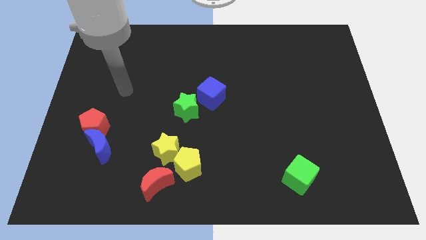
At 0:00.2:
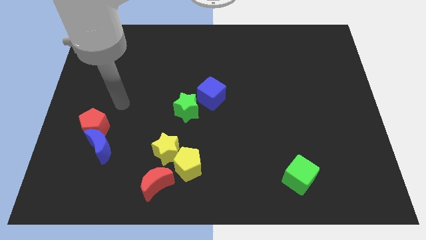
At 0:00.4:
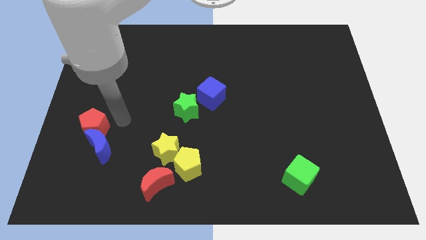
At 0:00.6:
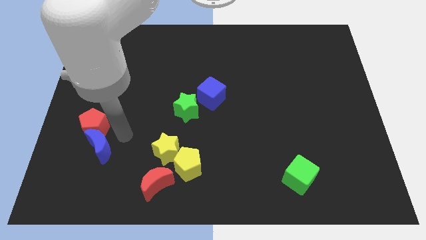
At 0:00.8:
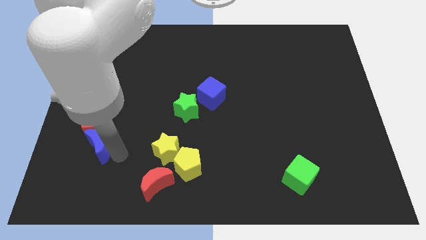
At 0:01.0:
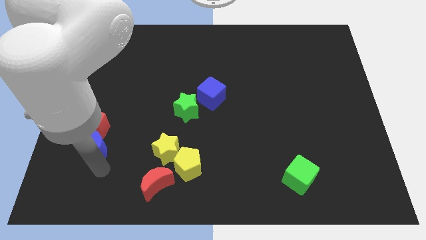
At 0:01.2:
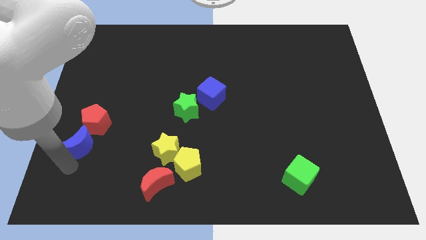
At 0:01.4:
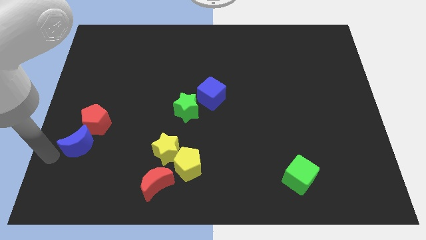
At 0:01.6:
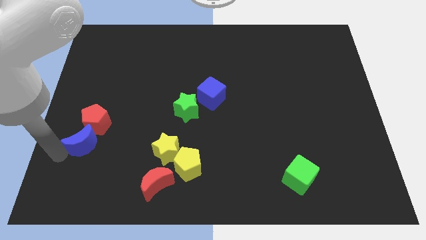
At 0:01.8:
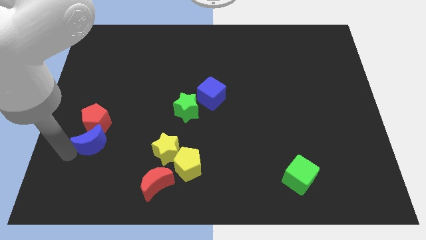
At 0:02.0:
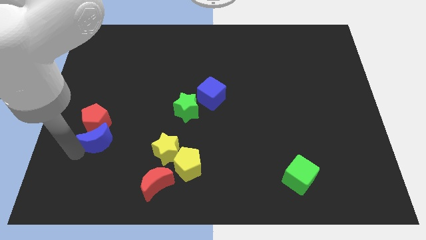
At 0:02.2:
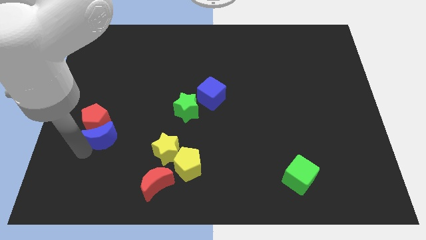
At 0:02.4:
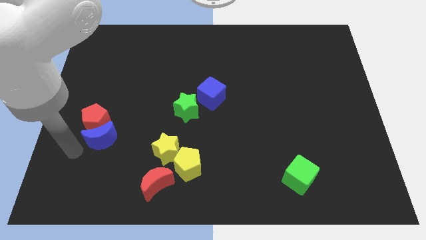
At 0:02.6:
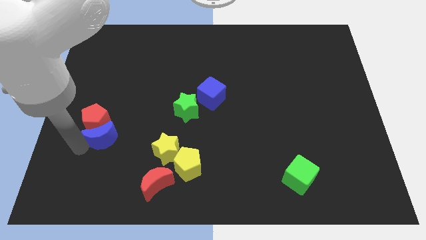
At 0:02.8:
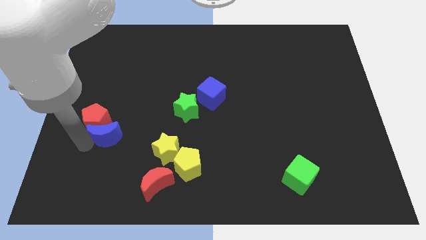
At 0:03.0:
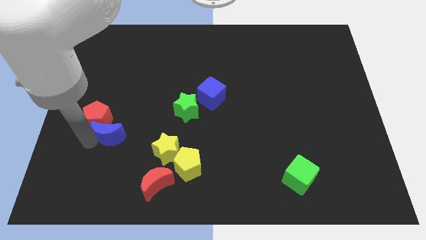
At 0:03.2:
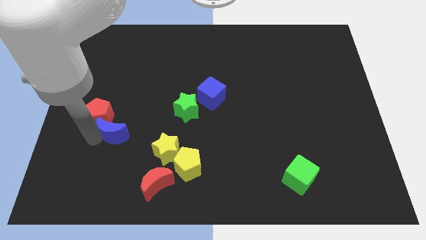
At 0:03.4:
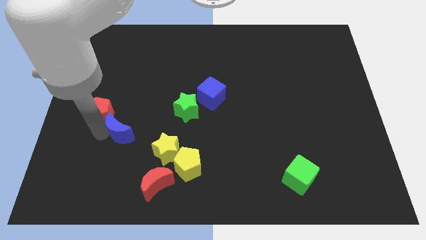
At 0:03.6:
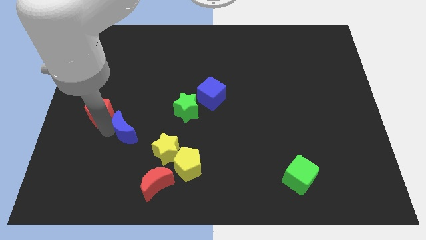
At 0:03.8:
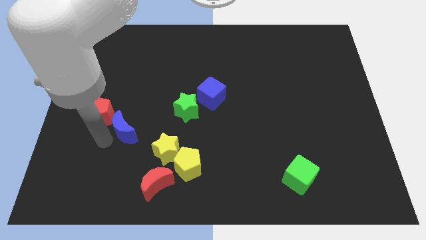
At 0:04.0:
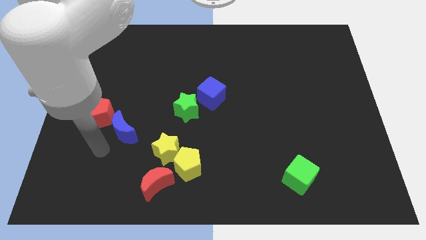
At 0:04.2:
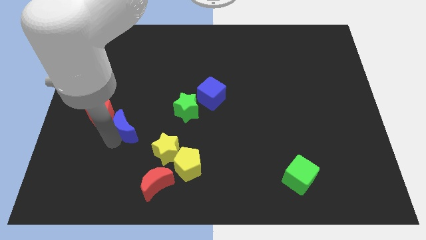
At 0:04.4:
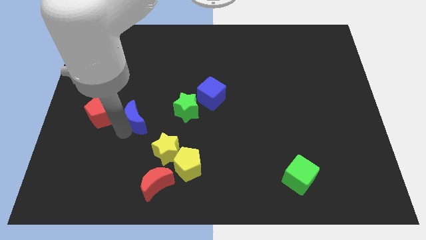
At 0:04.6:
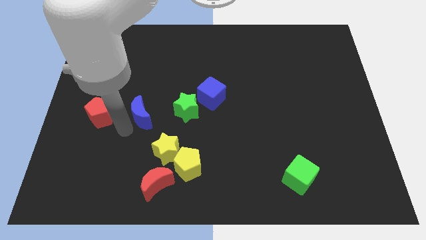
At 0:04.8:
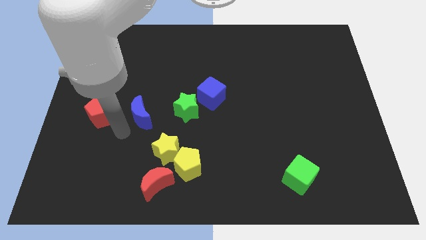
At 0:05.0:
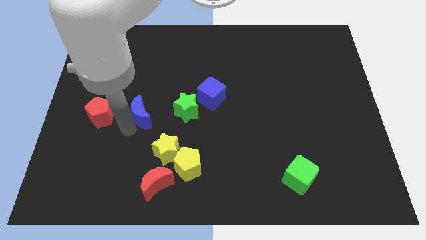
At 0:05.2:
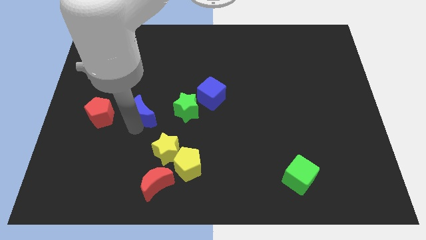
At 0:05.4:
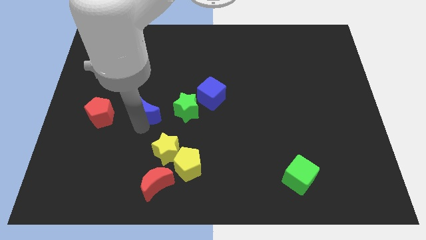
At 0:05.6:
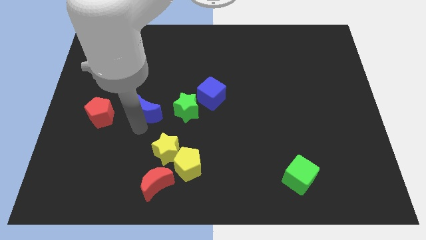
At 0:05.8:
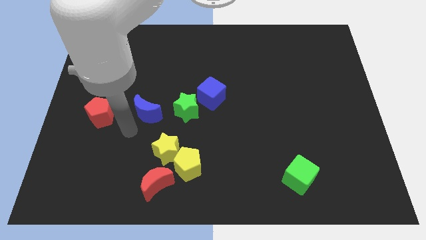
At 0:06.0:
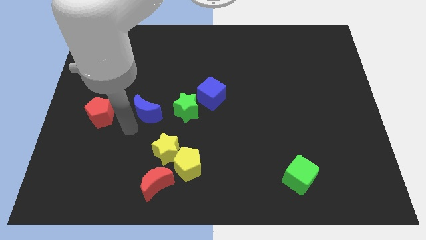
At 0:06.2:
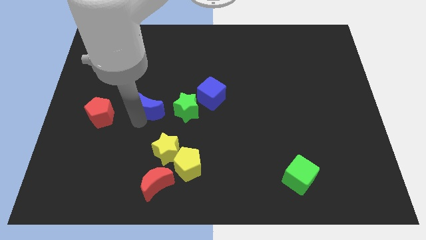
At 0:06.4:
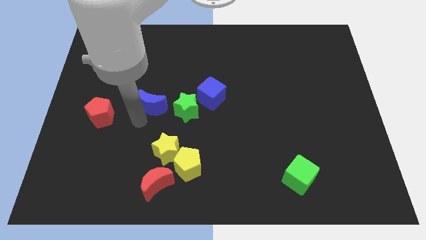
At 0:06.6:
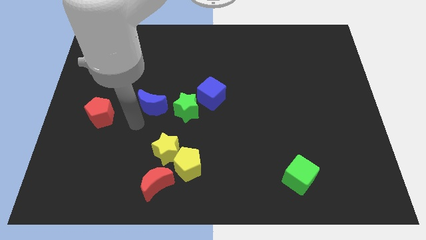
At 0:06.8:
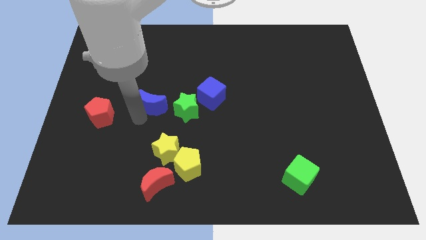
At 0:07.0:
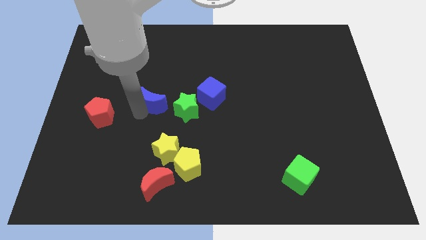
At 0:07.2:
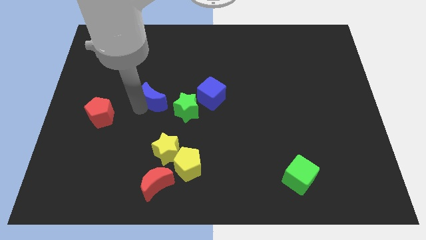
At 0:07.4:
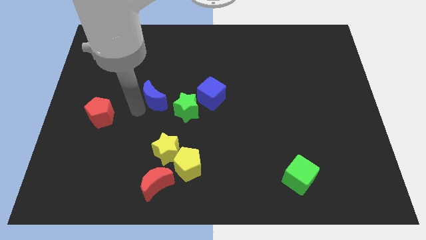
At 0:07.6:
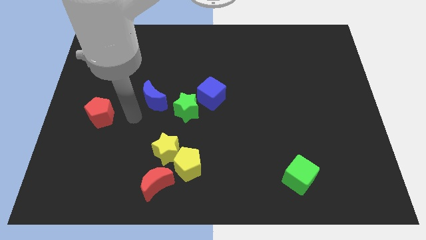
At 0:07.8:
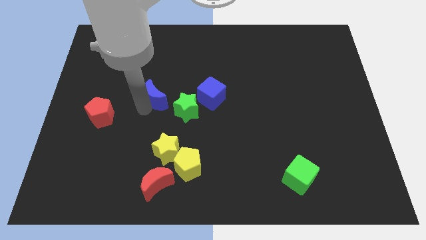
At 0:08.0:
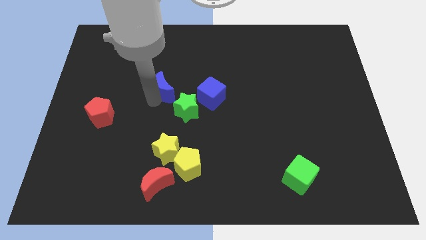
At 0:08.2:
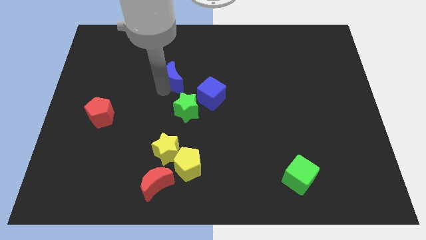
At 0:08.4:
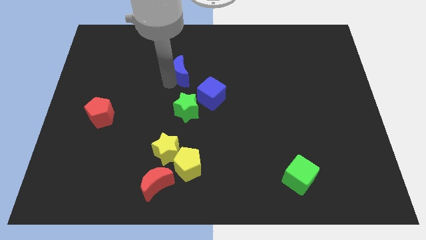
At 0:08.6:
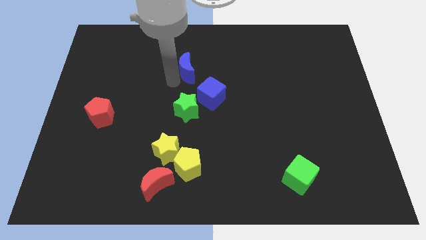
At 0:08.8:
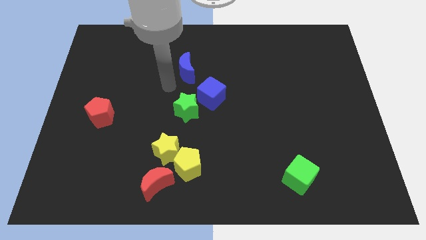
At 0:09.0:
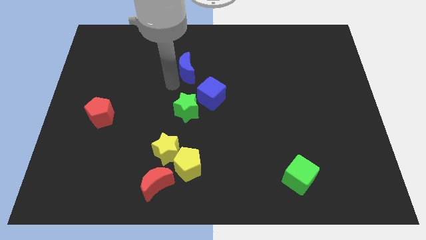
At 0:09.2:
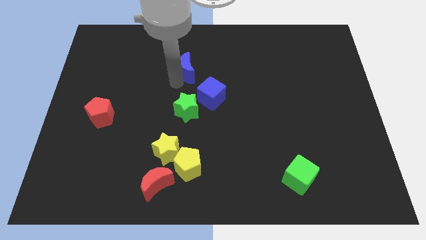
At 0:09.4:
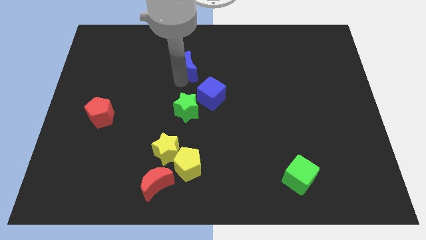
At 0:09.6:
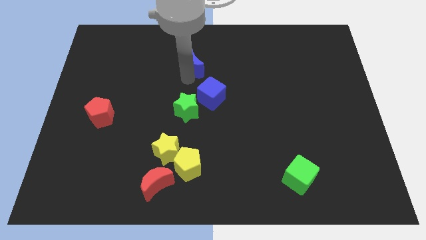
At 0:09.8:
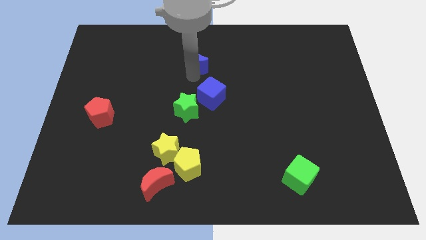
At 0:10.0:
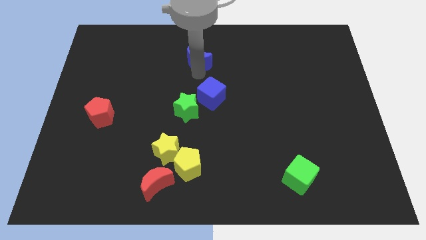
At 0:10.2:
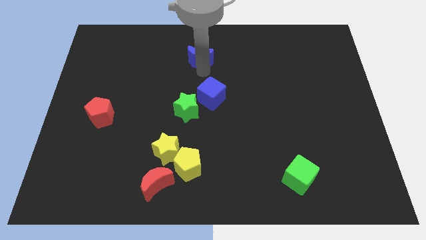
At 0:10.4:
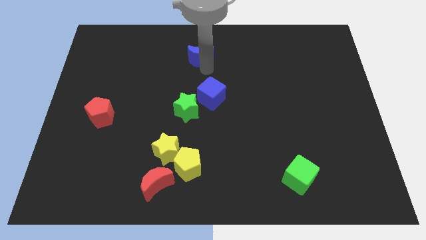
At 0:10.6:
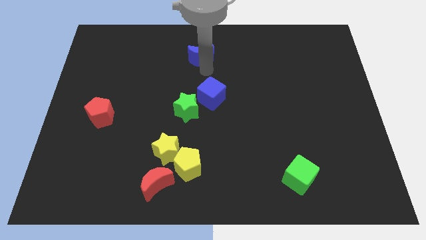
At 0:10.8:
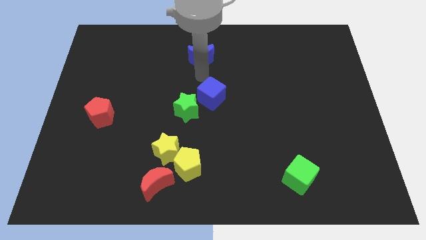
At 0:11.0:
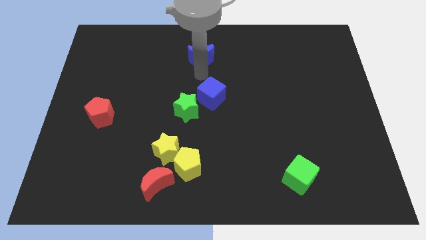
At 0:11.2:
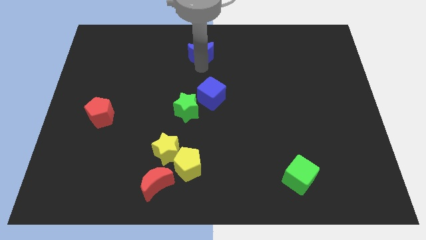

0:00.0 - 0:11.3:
move the blue moon to the top side

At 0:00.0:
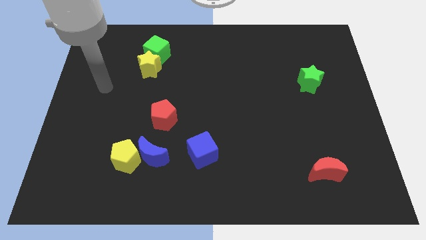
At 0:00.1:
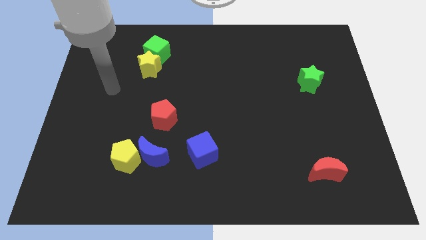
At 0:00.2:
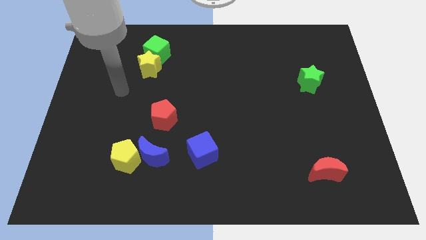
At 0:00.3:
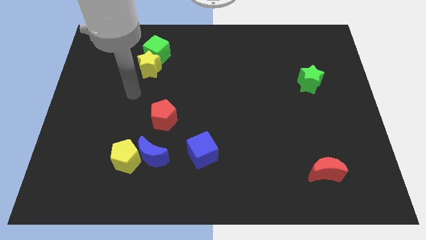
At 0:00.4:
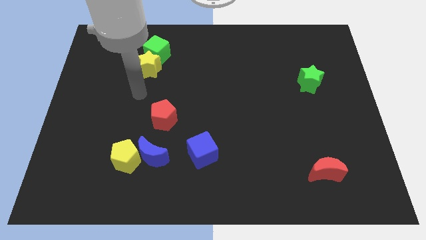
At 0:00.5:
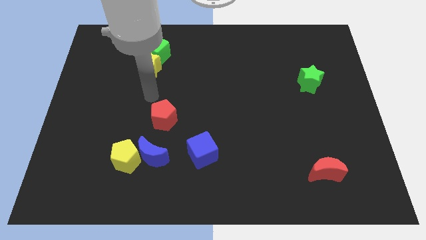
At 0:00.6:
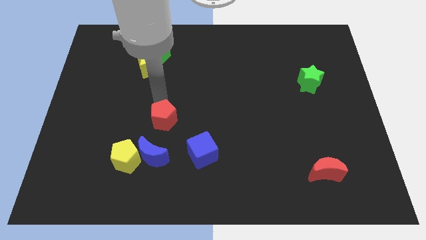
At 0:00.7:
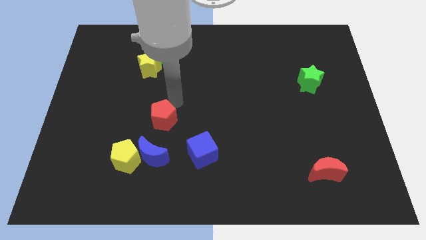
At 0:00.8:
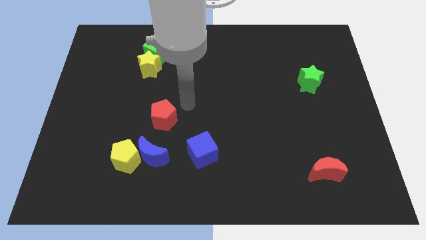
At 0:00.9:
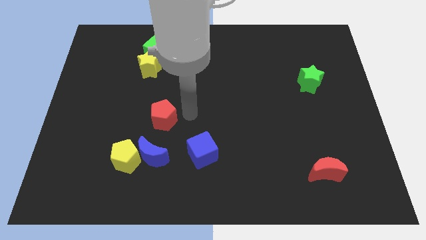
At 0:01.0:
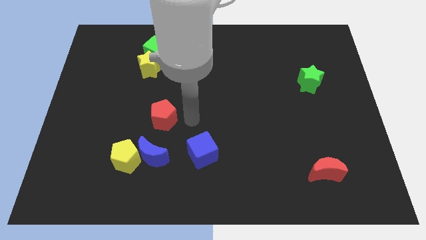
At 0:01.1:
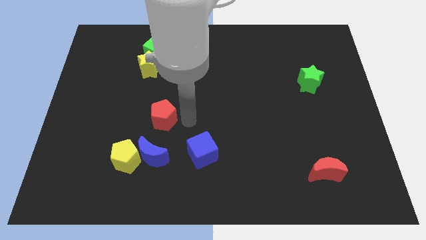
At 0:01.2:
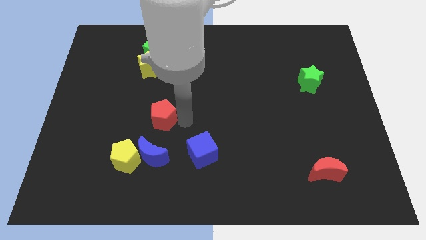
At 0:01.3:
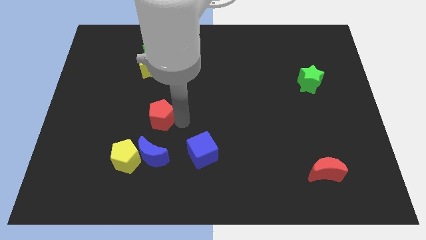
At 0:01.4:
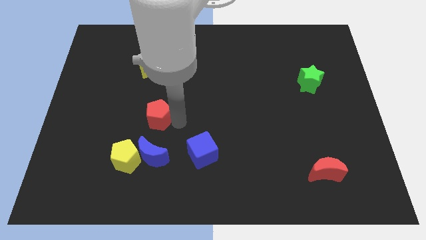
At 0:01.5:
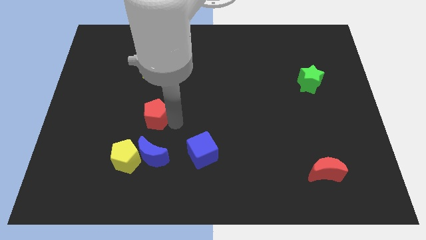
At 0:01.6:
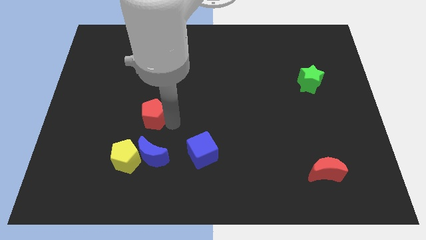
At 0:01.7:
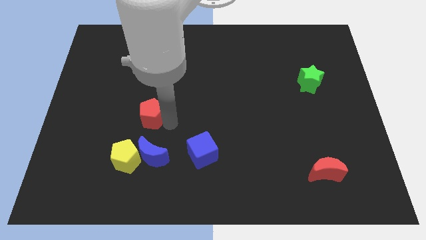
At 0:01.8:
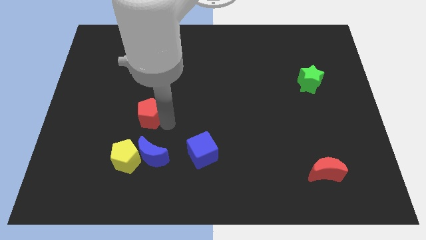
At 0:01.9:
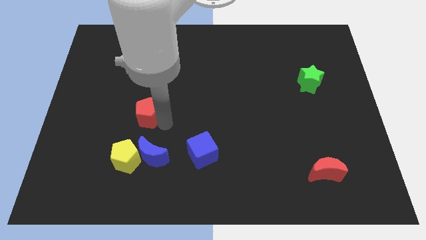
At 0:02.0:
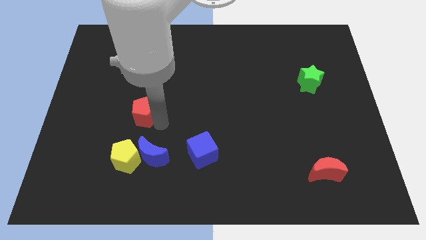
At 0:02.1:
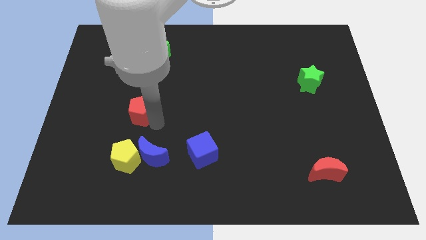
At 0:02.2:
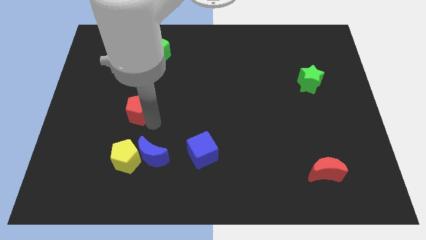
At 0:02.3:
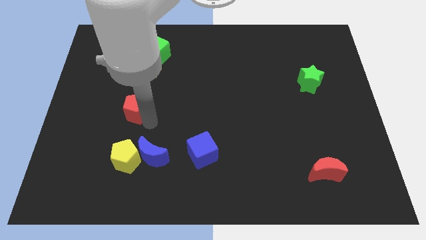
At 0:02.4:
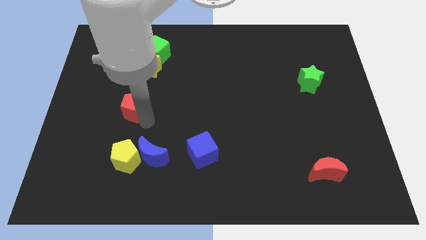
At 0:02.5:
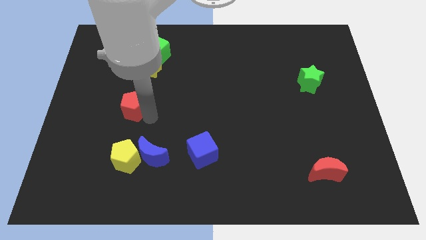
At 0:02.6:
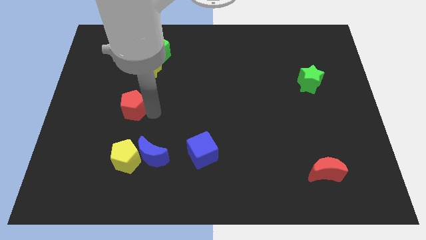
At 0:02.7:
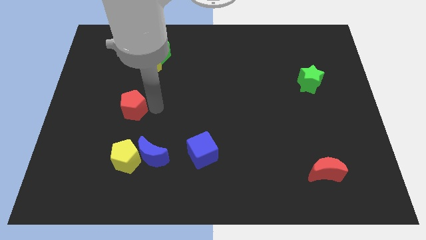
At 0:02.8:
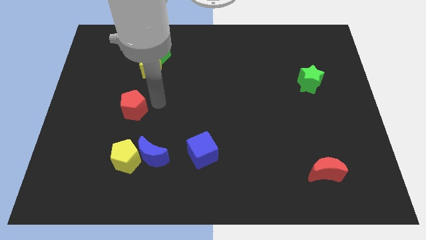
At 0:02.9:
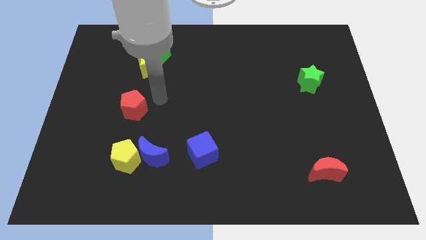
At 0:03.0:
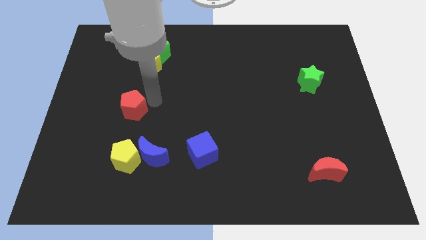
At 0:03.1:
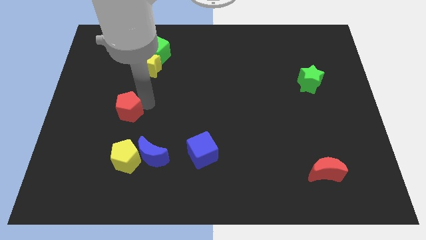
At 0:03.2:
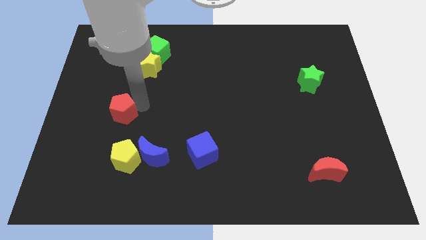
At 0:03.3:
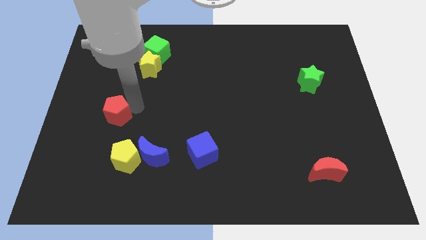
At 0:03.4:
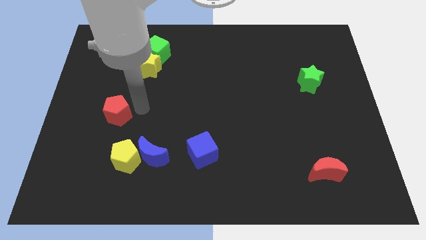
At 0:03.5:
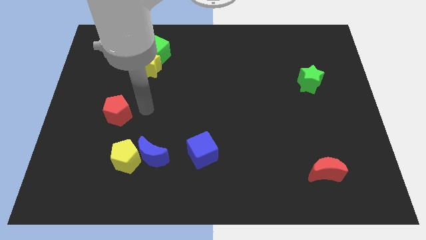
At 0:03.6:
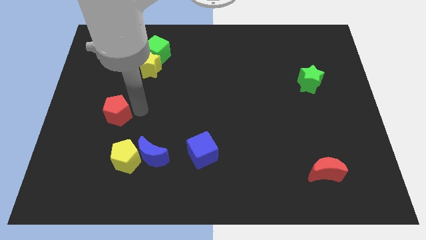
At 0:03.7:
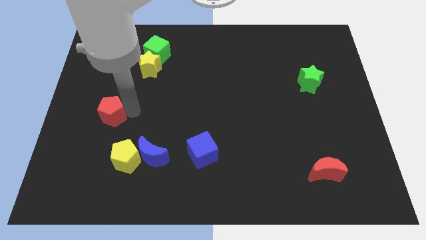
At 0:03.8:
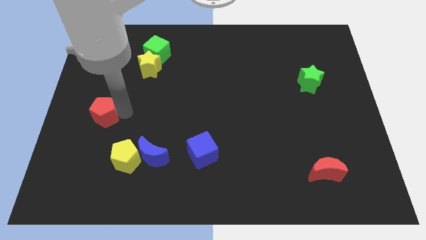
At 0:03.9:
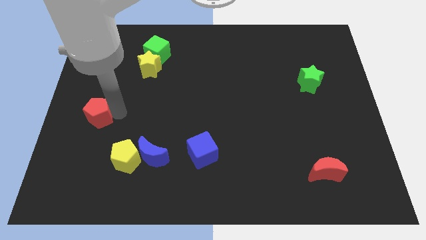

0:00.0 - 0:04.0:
move the red pentagon to the left side
